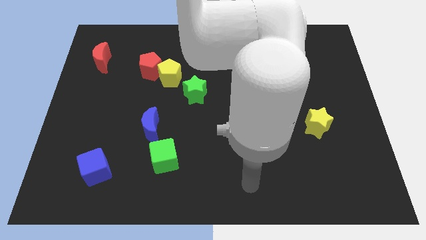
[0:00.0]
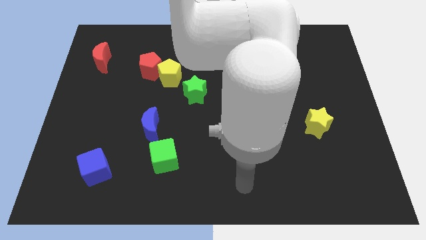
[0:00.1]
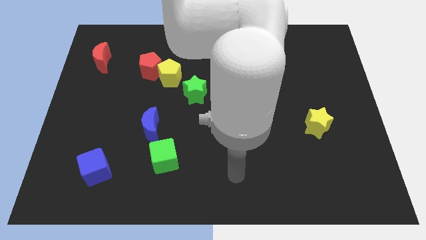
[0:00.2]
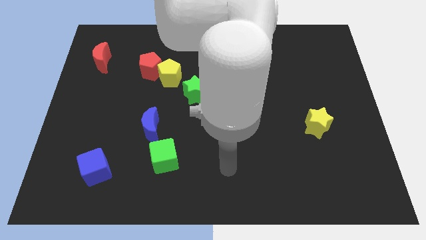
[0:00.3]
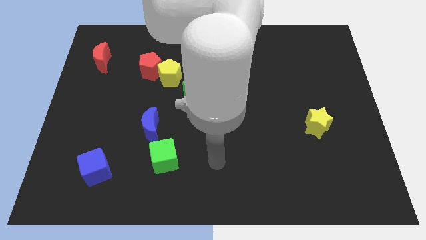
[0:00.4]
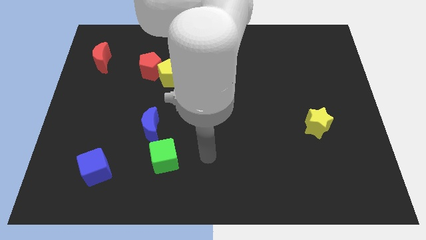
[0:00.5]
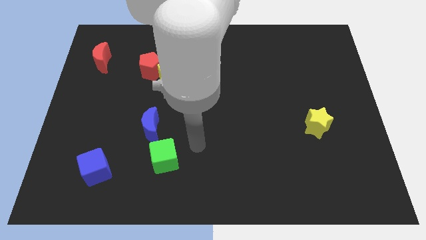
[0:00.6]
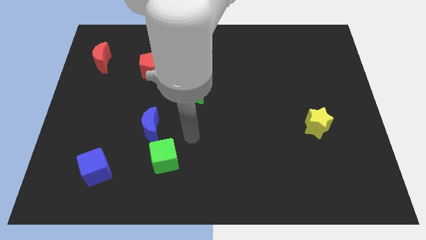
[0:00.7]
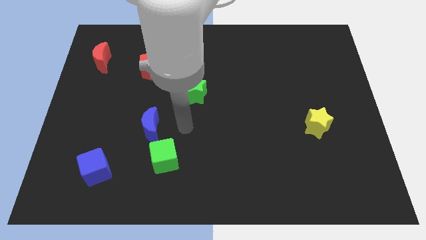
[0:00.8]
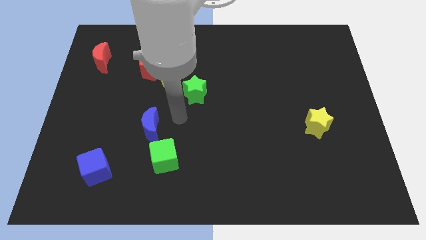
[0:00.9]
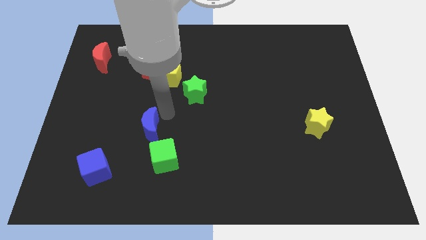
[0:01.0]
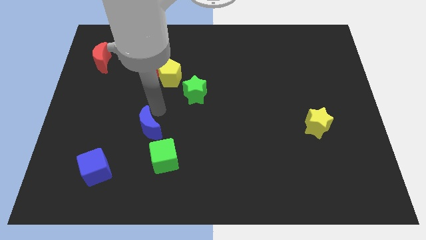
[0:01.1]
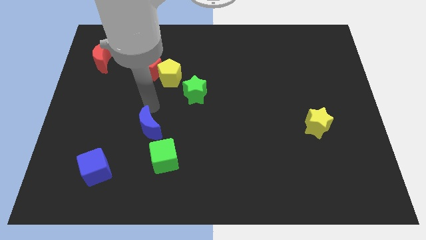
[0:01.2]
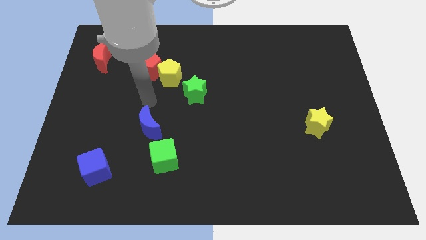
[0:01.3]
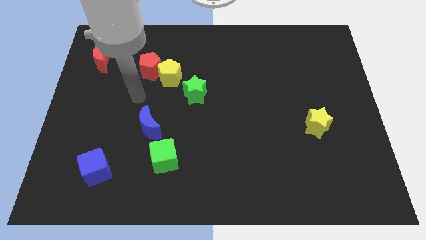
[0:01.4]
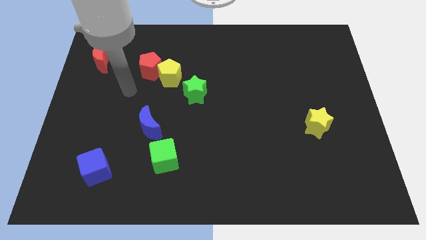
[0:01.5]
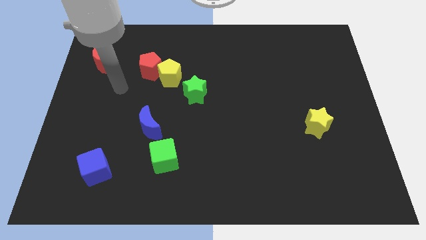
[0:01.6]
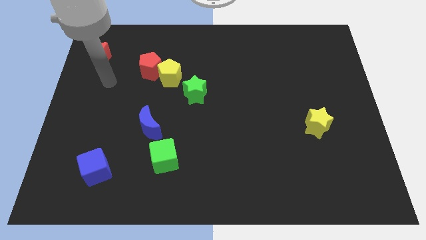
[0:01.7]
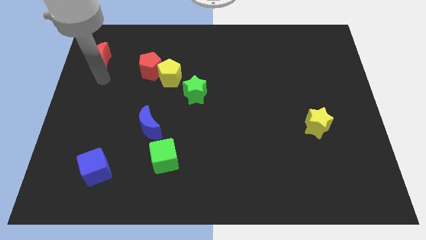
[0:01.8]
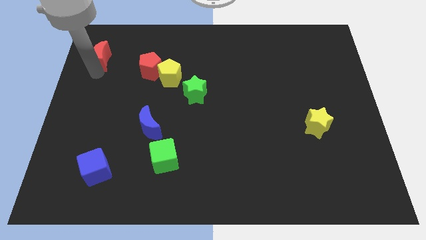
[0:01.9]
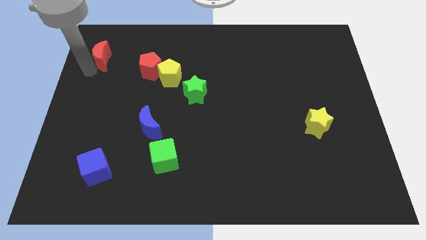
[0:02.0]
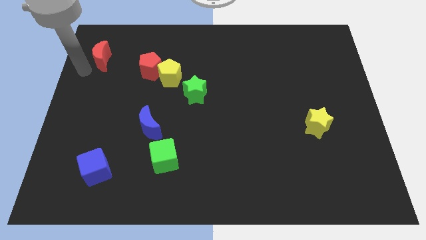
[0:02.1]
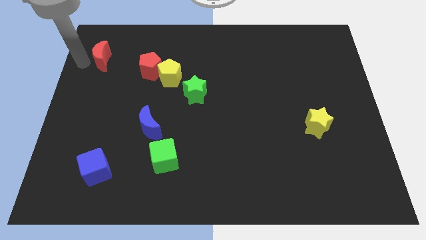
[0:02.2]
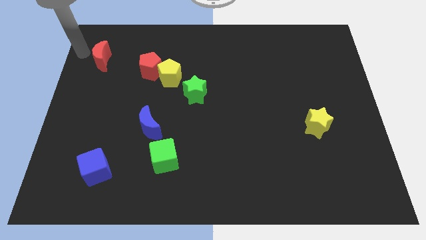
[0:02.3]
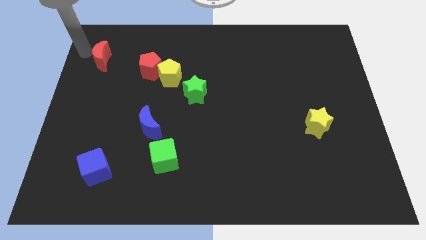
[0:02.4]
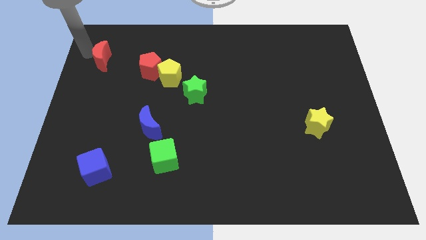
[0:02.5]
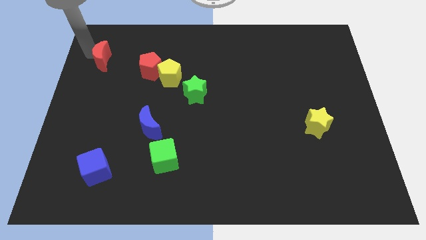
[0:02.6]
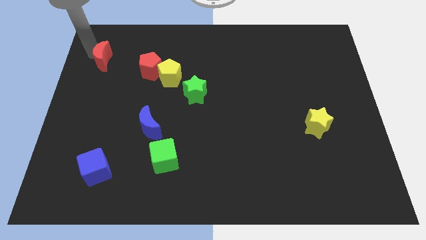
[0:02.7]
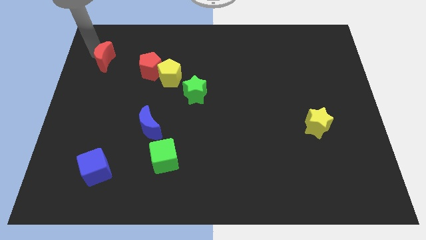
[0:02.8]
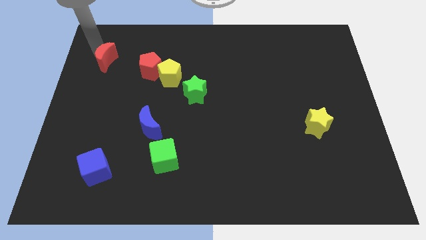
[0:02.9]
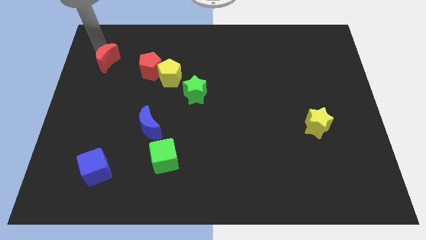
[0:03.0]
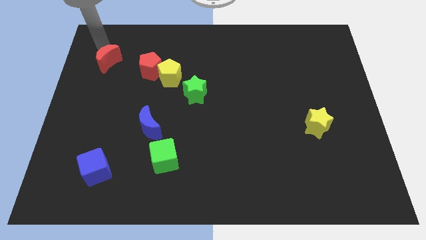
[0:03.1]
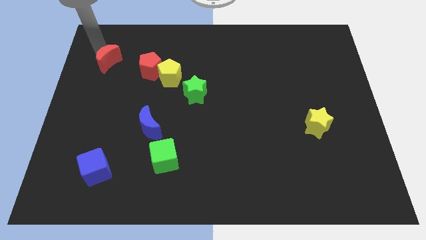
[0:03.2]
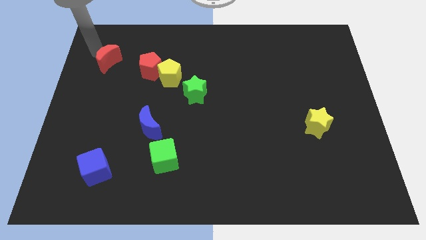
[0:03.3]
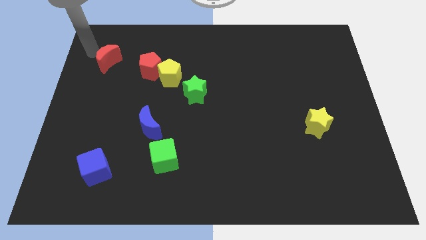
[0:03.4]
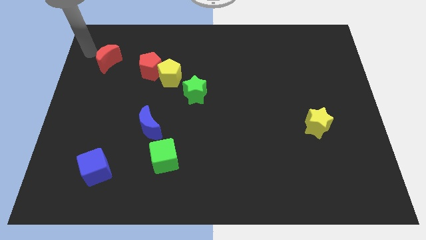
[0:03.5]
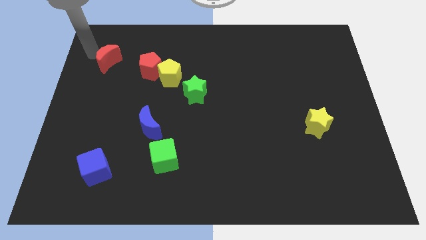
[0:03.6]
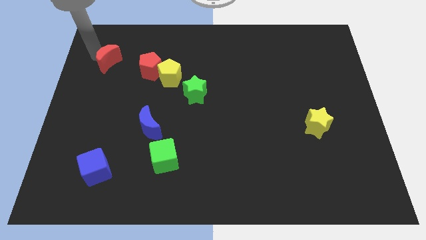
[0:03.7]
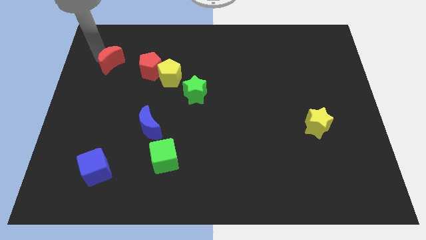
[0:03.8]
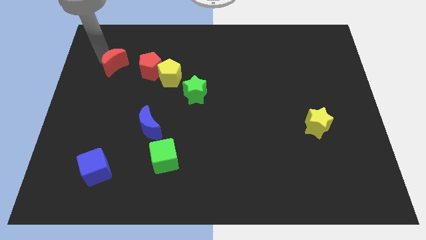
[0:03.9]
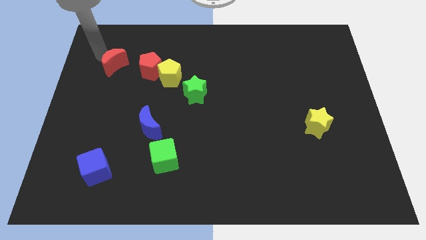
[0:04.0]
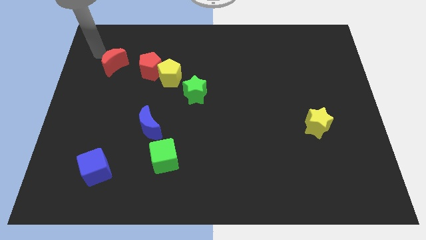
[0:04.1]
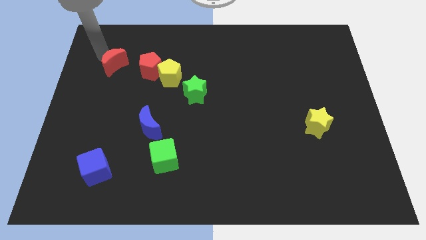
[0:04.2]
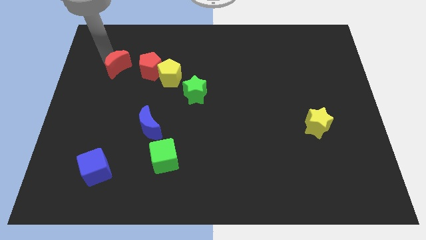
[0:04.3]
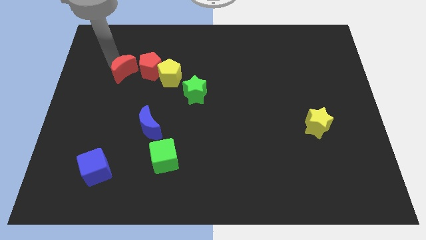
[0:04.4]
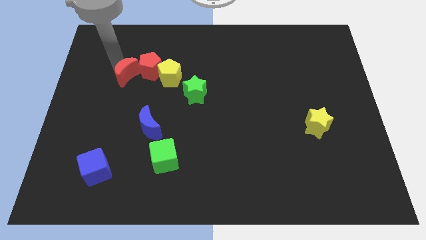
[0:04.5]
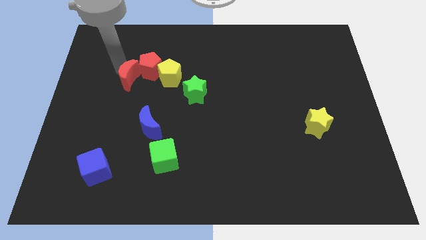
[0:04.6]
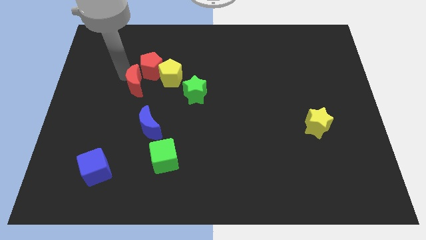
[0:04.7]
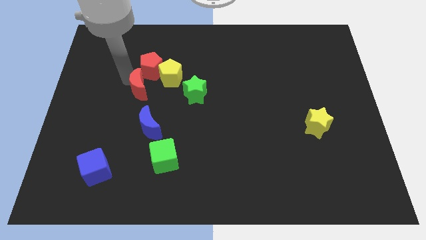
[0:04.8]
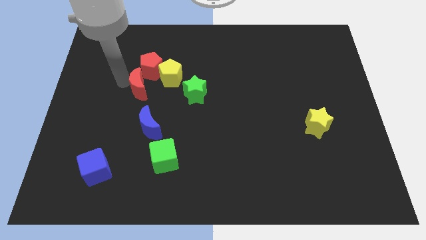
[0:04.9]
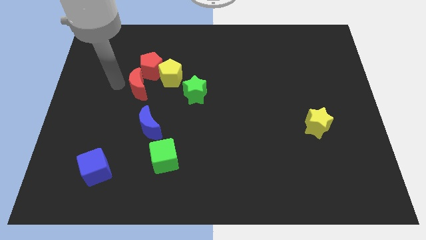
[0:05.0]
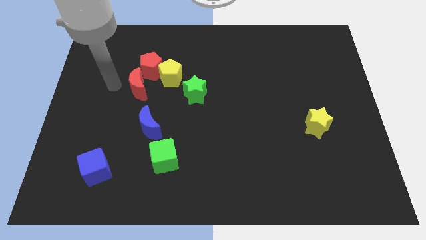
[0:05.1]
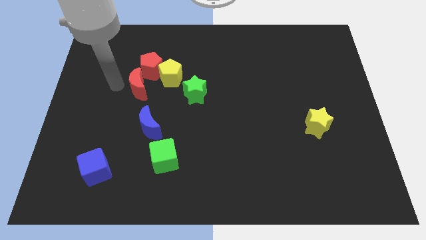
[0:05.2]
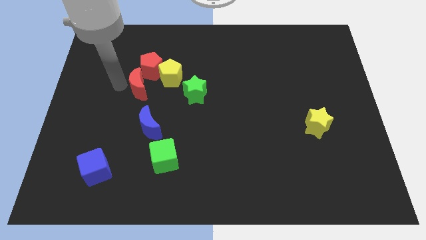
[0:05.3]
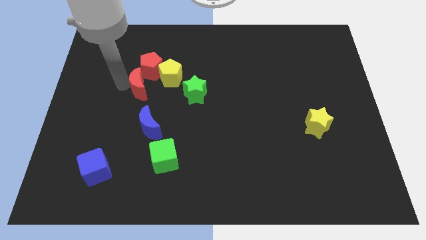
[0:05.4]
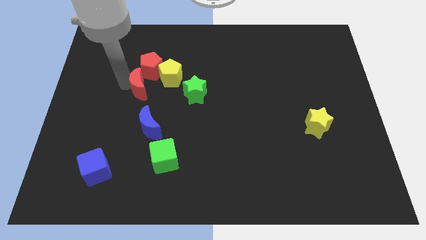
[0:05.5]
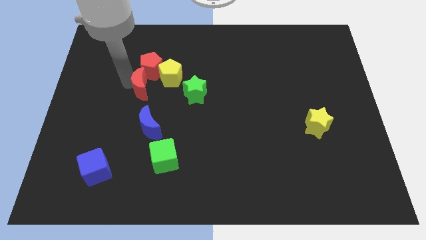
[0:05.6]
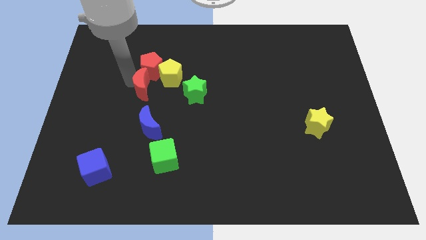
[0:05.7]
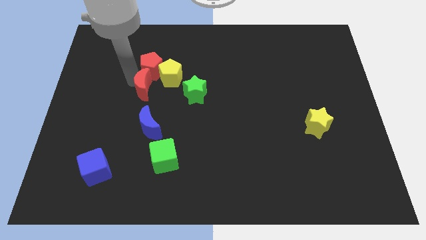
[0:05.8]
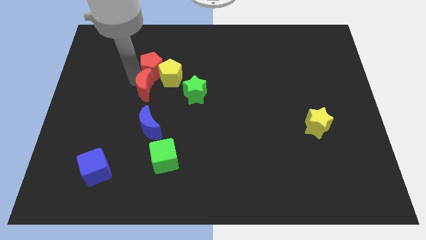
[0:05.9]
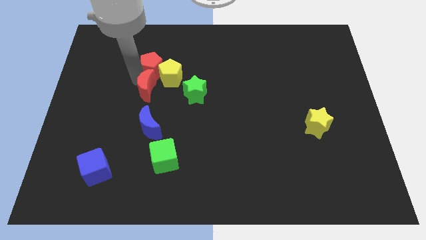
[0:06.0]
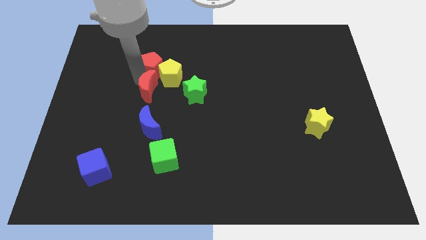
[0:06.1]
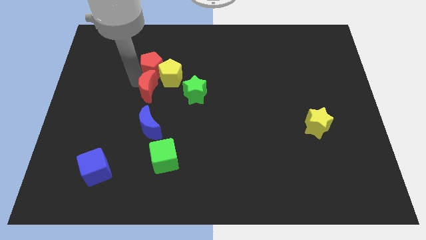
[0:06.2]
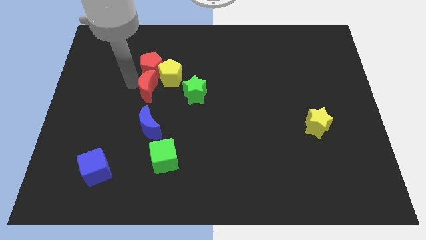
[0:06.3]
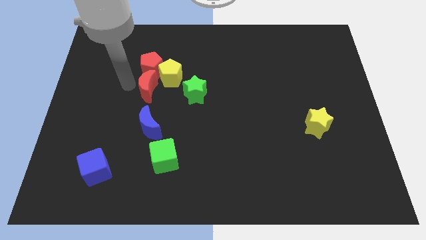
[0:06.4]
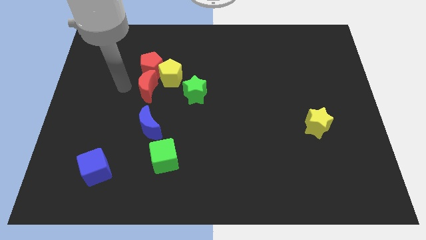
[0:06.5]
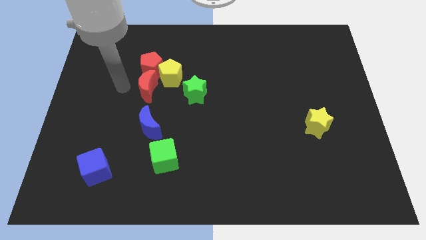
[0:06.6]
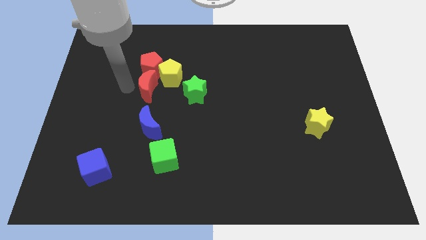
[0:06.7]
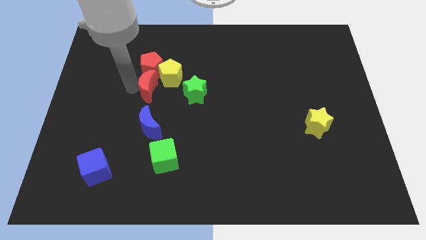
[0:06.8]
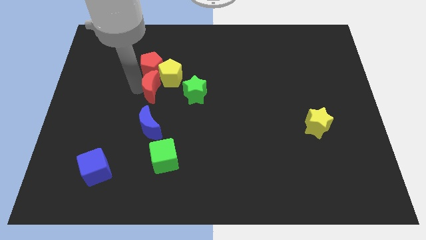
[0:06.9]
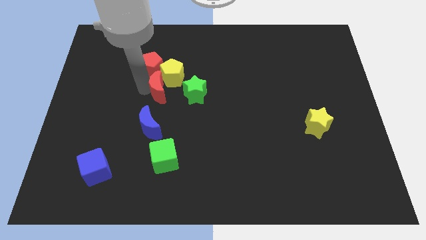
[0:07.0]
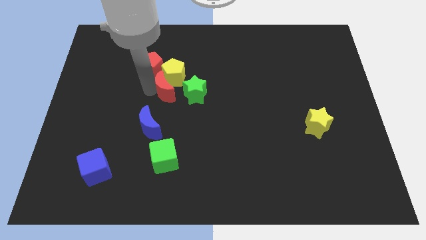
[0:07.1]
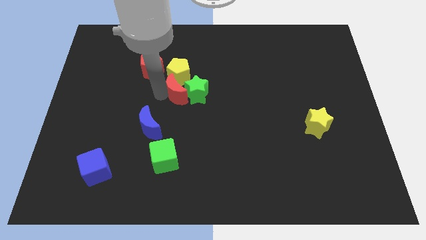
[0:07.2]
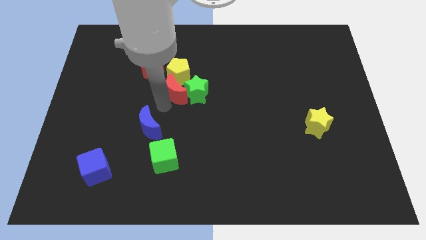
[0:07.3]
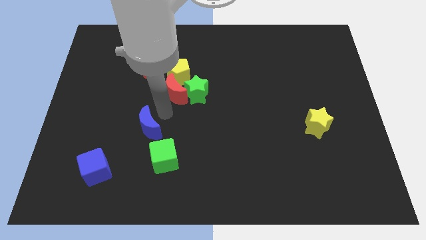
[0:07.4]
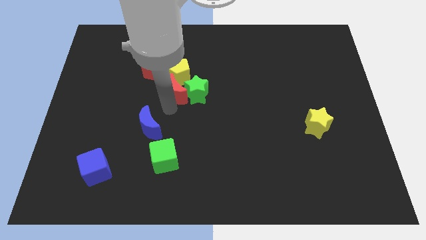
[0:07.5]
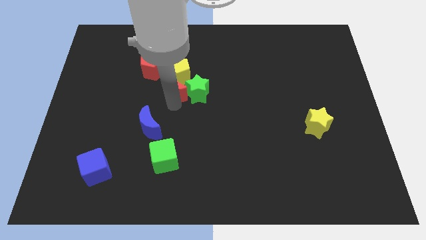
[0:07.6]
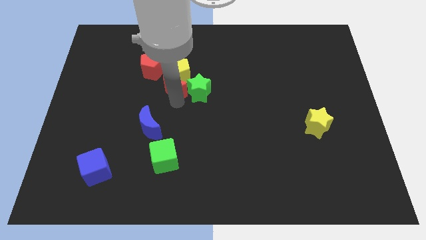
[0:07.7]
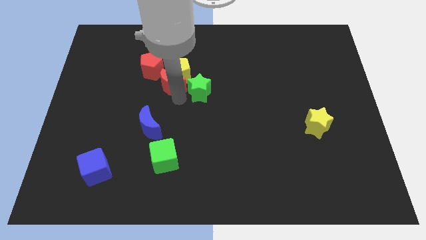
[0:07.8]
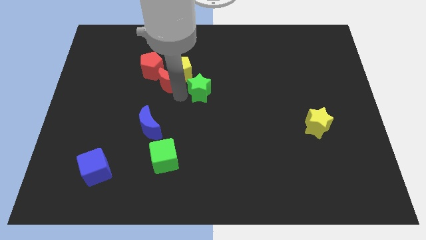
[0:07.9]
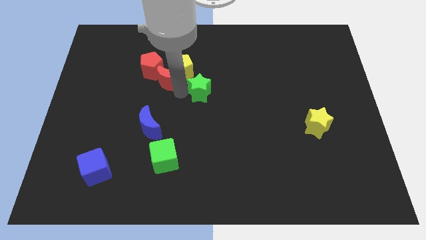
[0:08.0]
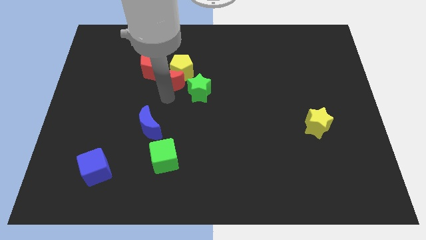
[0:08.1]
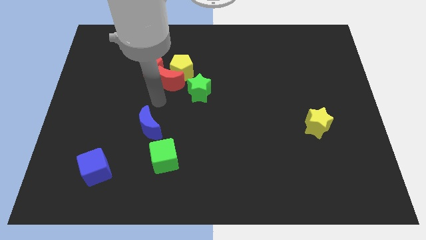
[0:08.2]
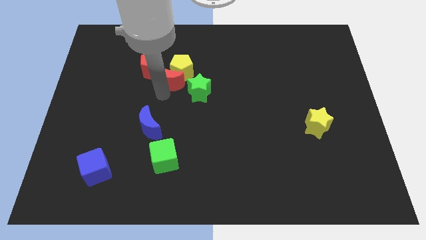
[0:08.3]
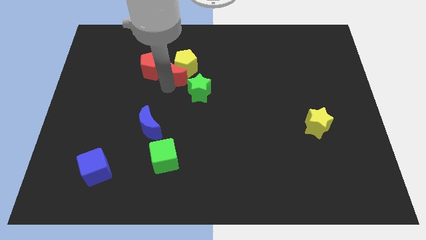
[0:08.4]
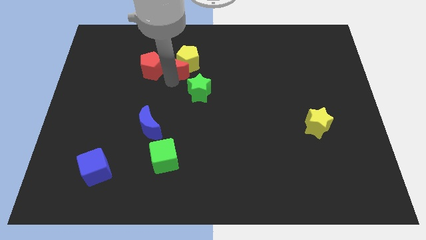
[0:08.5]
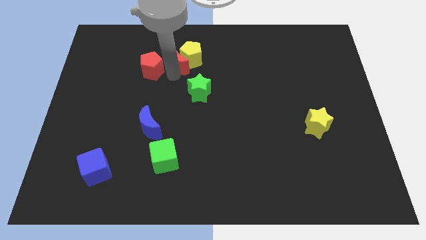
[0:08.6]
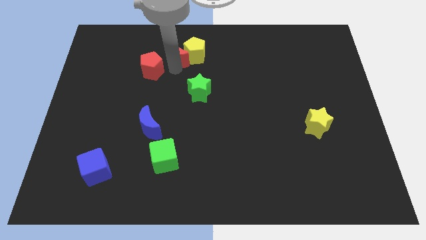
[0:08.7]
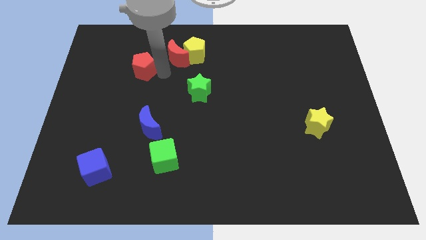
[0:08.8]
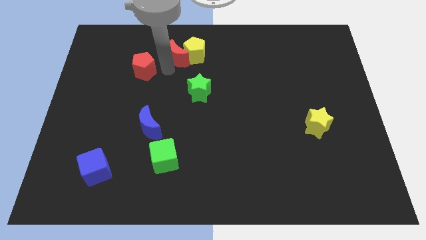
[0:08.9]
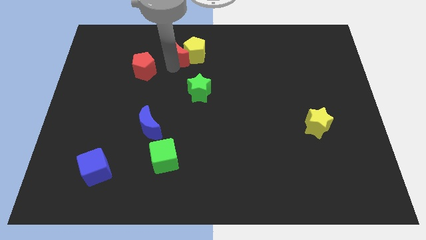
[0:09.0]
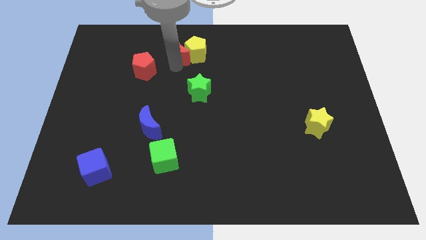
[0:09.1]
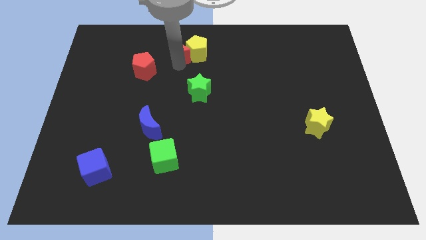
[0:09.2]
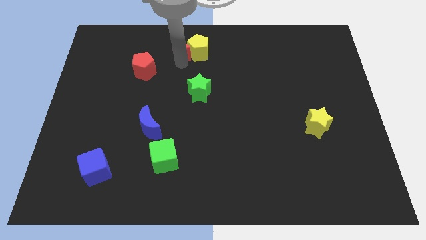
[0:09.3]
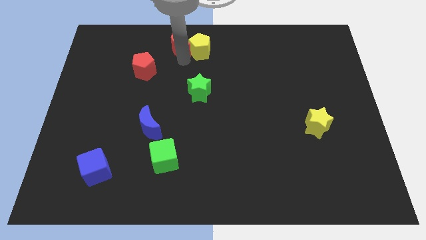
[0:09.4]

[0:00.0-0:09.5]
put the red moon to the top side
